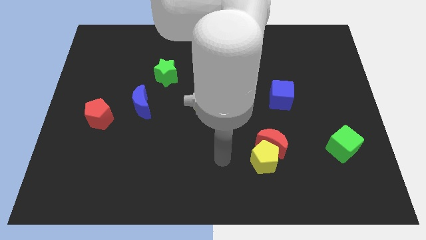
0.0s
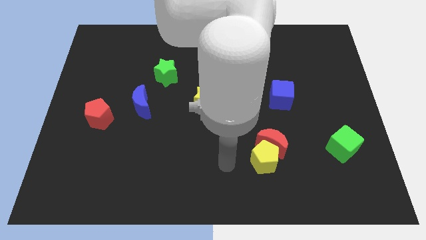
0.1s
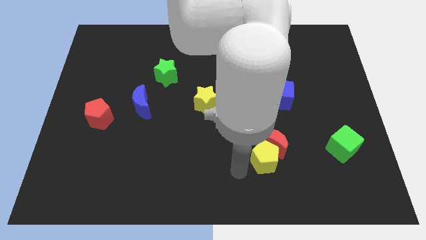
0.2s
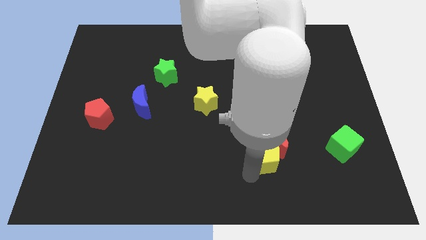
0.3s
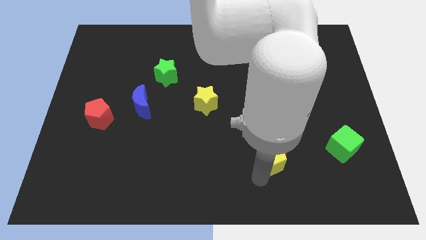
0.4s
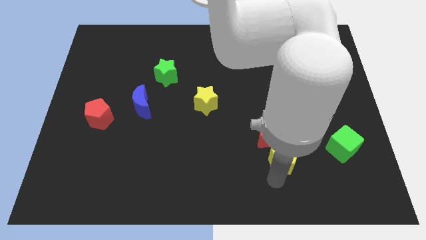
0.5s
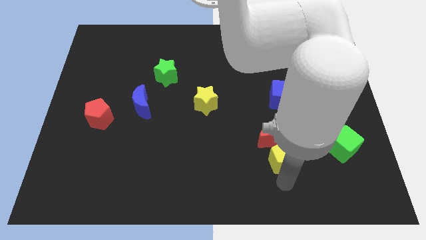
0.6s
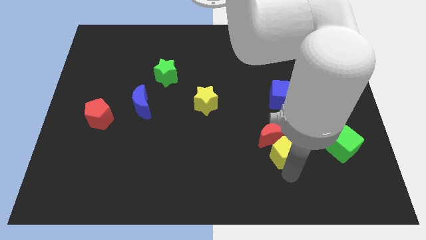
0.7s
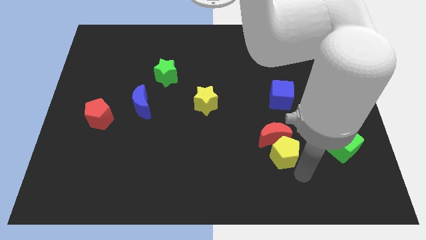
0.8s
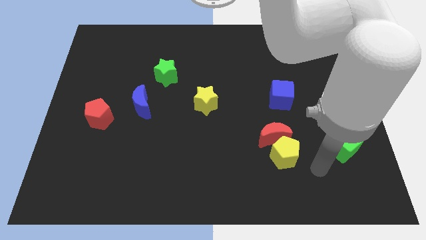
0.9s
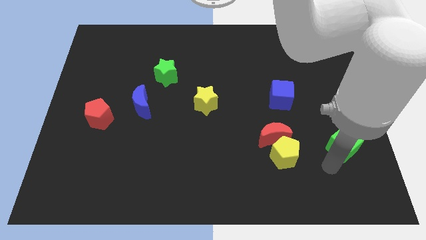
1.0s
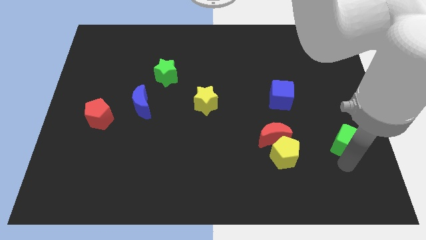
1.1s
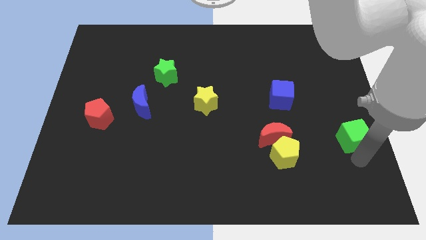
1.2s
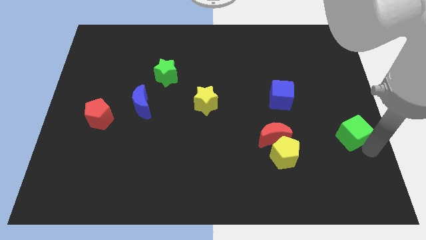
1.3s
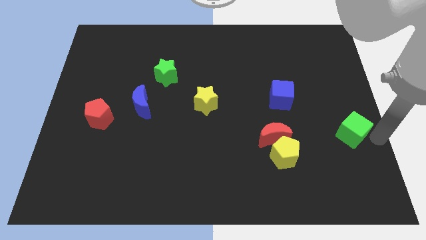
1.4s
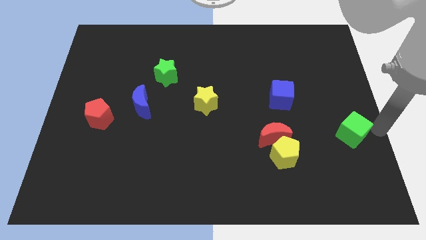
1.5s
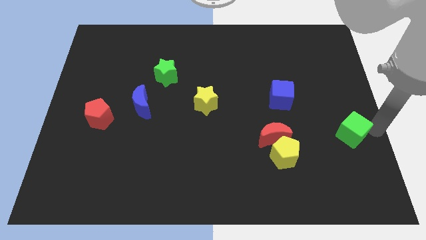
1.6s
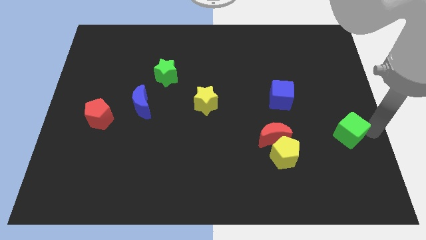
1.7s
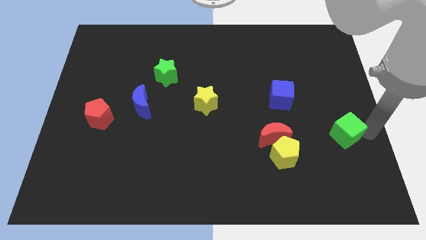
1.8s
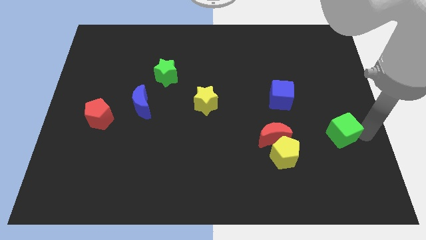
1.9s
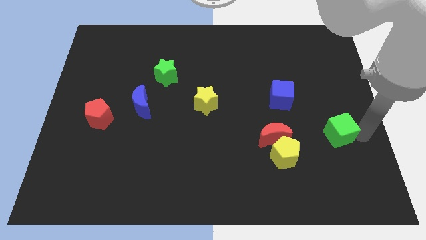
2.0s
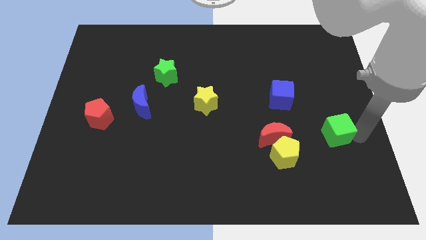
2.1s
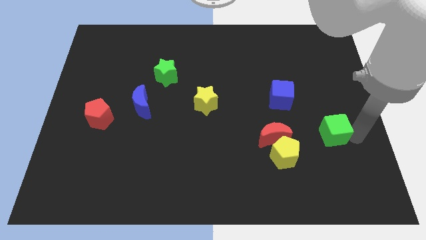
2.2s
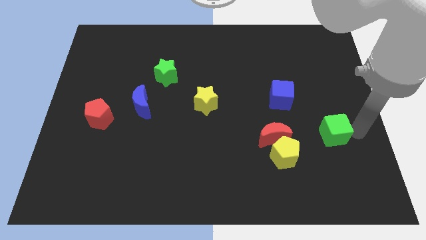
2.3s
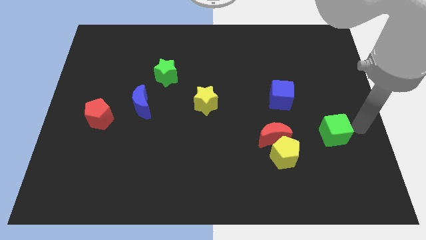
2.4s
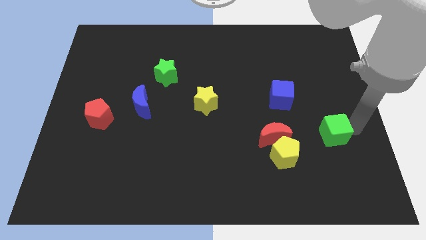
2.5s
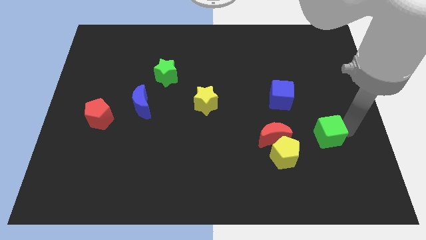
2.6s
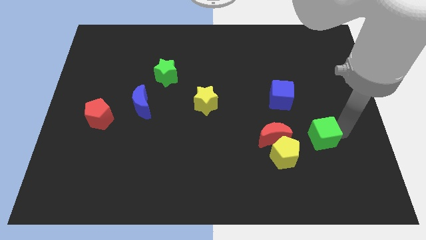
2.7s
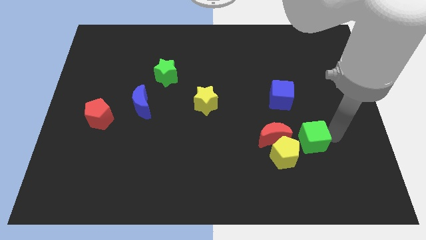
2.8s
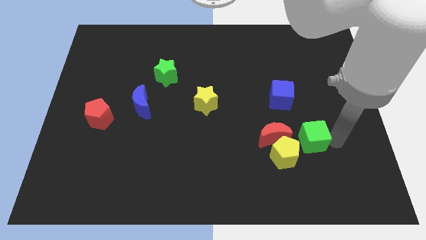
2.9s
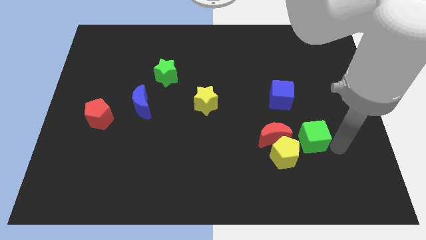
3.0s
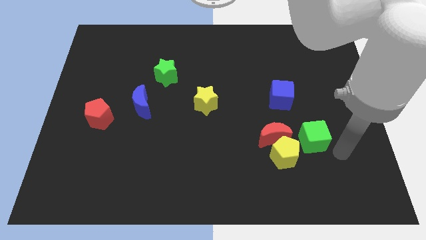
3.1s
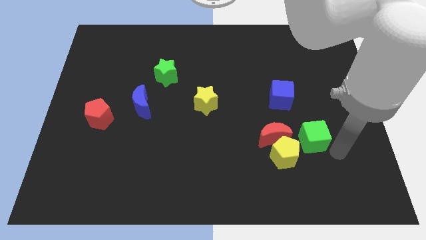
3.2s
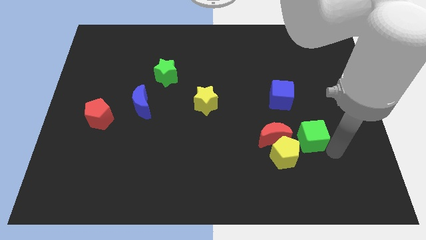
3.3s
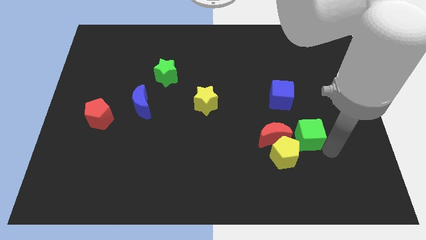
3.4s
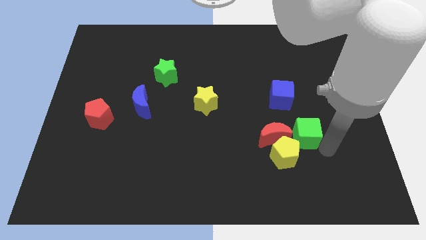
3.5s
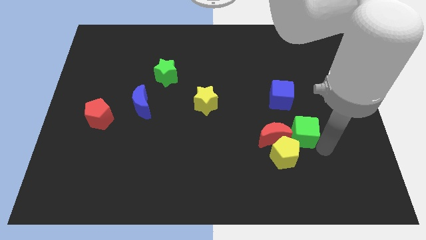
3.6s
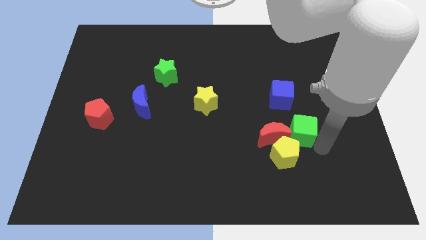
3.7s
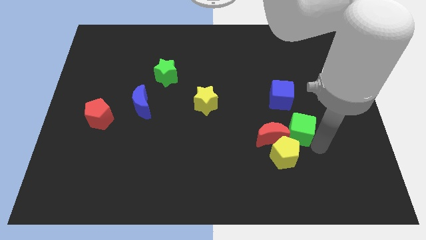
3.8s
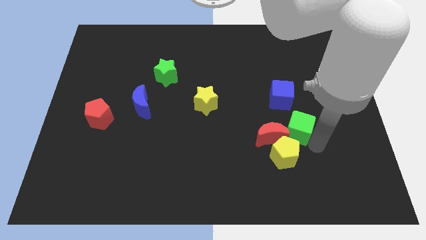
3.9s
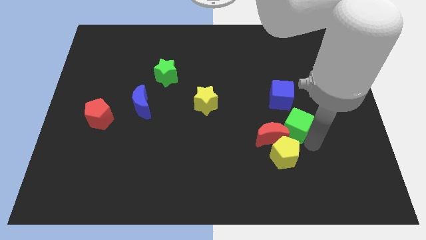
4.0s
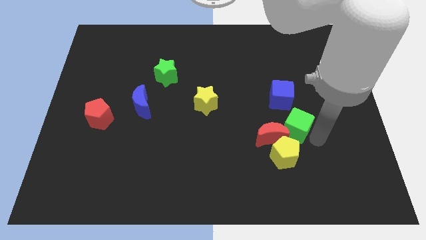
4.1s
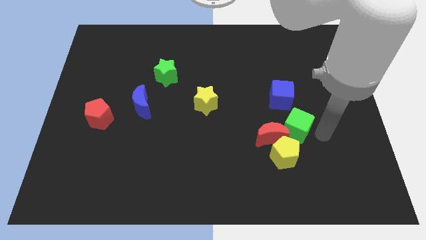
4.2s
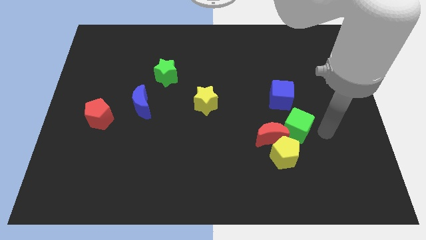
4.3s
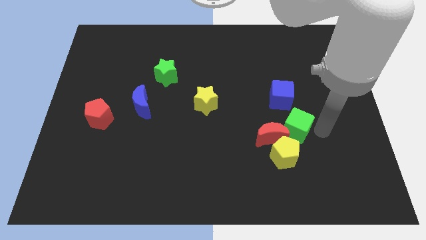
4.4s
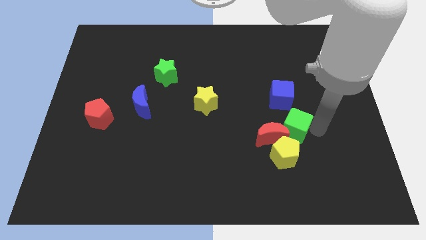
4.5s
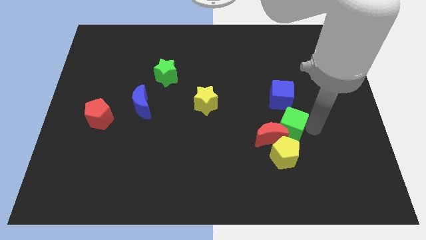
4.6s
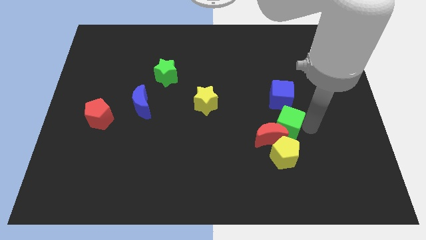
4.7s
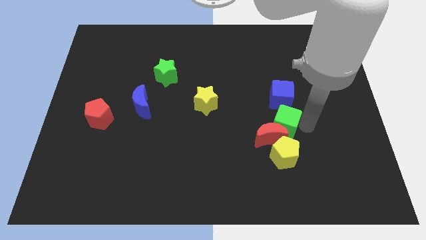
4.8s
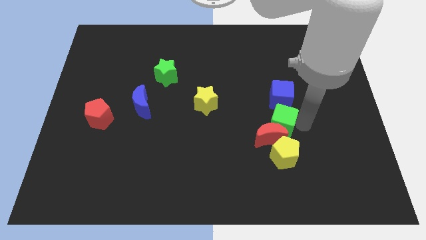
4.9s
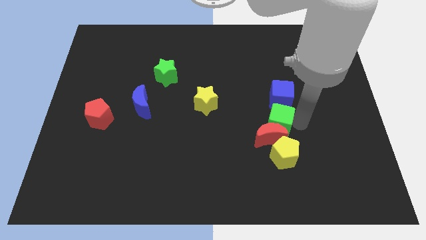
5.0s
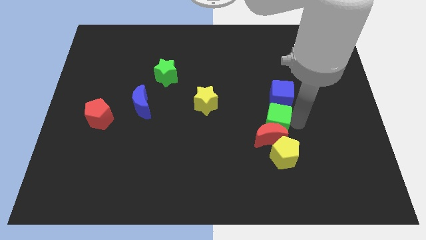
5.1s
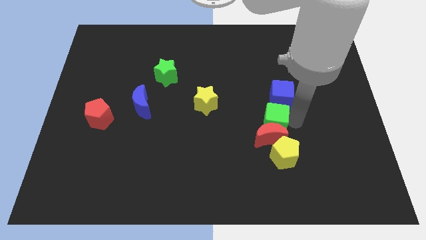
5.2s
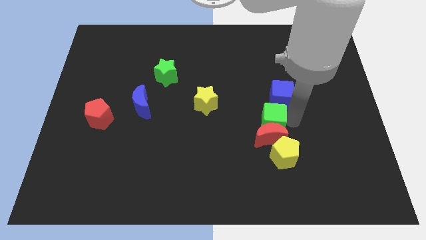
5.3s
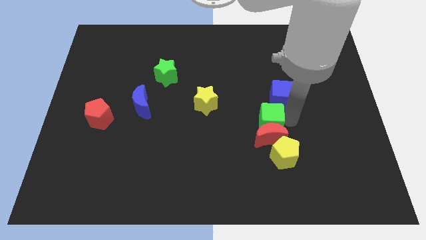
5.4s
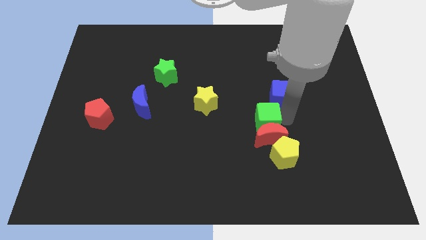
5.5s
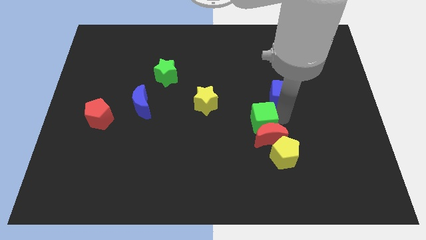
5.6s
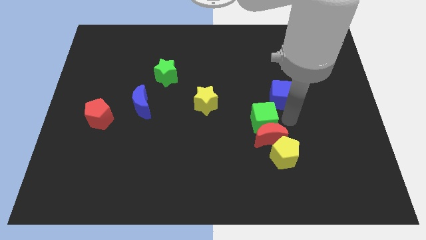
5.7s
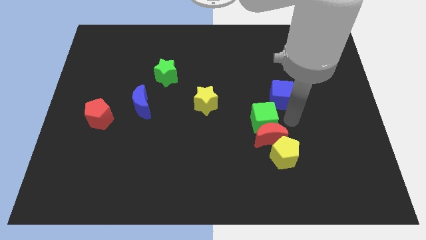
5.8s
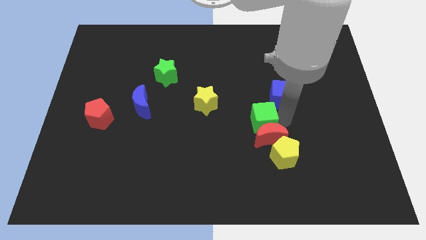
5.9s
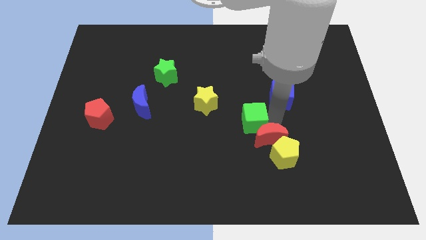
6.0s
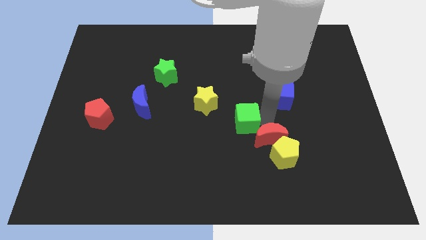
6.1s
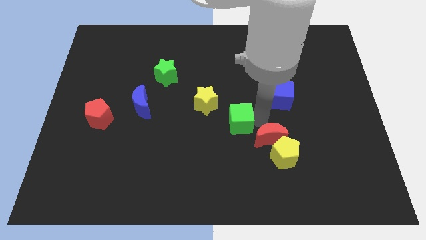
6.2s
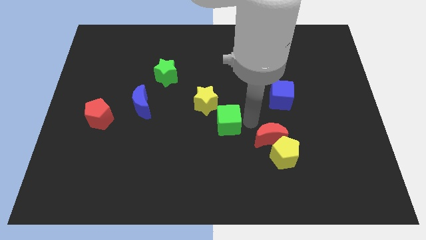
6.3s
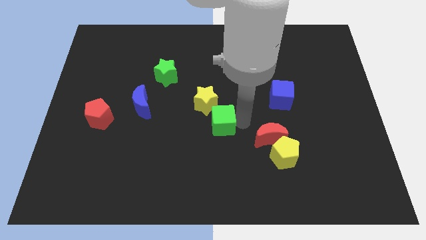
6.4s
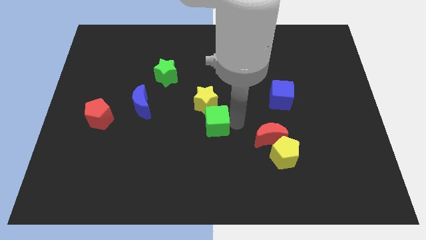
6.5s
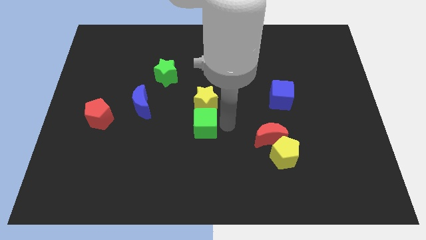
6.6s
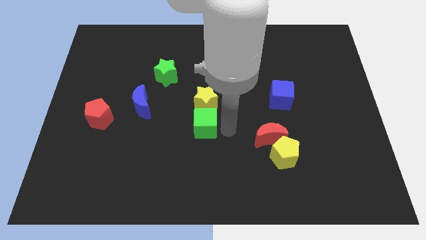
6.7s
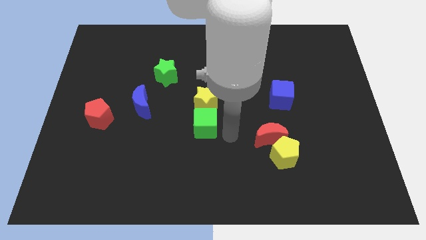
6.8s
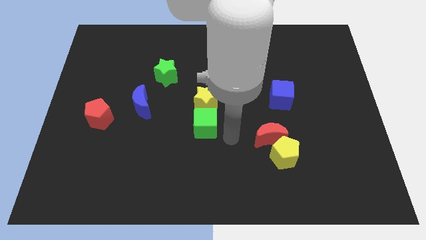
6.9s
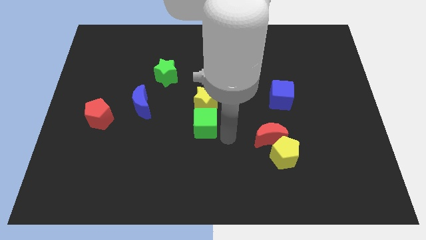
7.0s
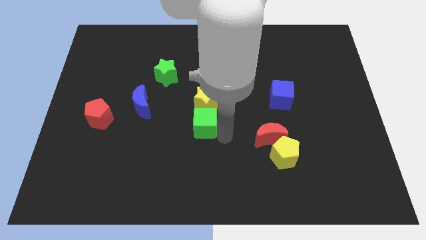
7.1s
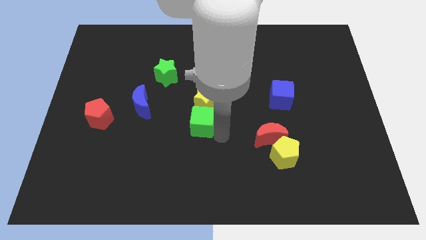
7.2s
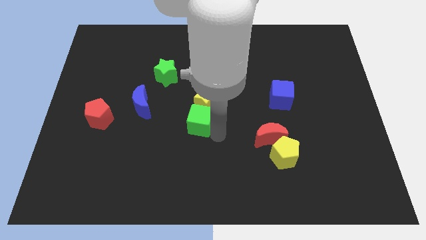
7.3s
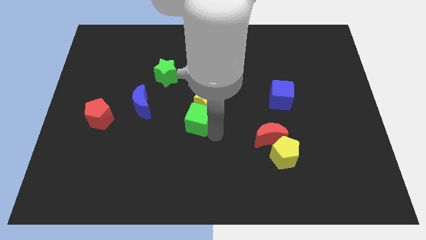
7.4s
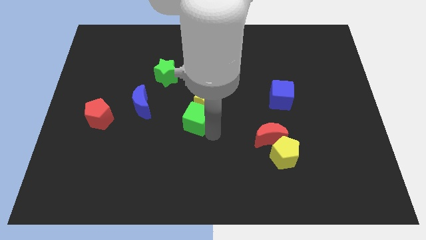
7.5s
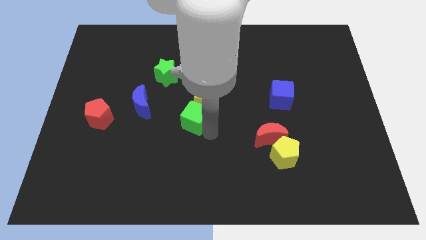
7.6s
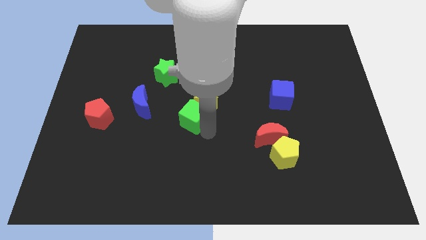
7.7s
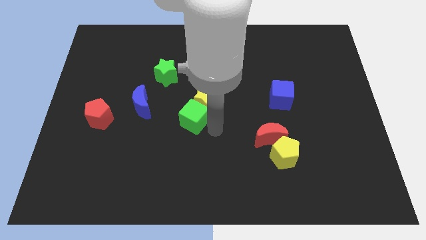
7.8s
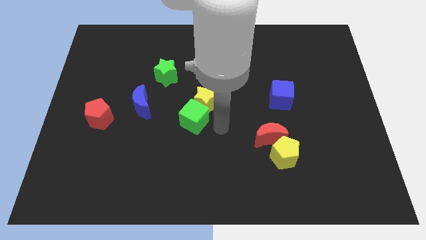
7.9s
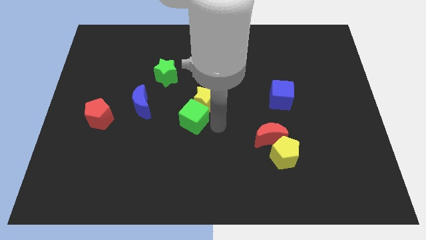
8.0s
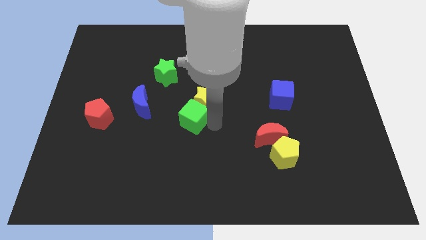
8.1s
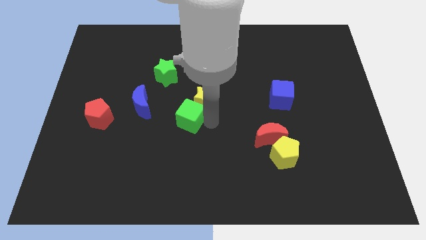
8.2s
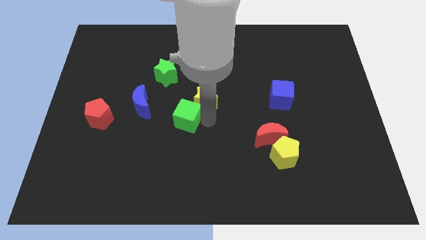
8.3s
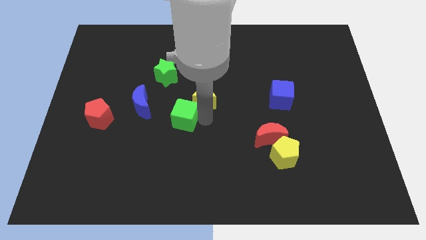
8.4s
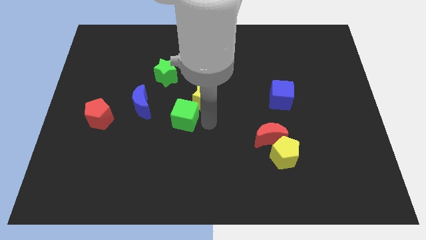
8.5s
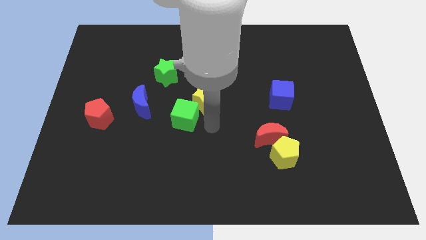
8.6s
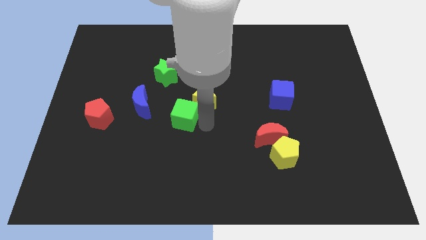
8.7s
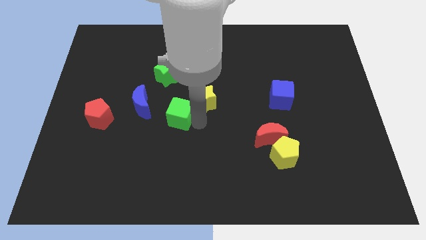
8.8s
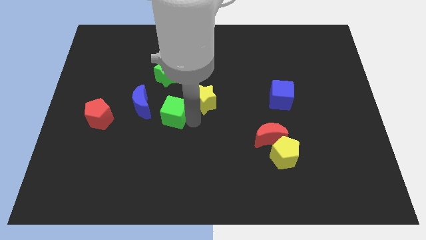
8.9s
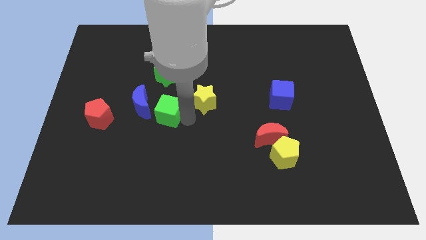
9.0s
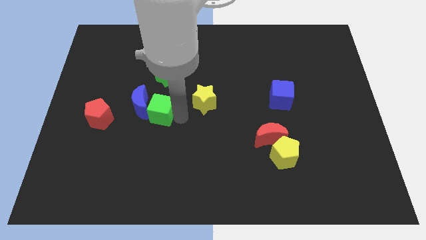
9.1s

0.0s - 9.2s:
move the green cube to the blue moon
